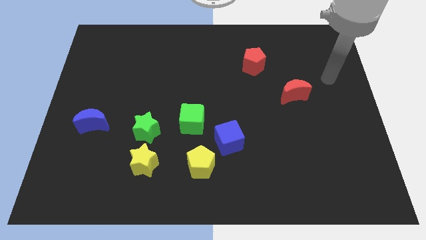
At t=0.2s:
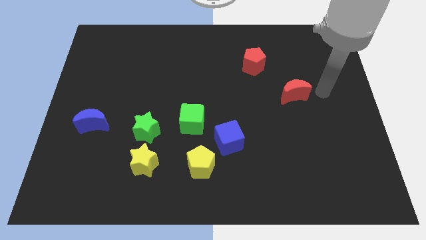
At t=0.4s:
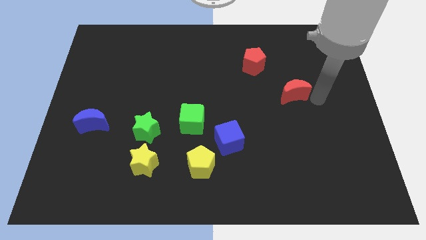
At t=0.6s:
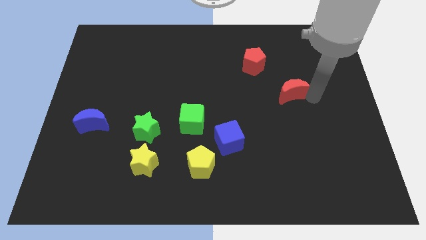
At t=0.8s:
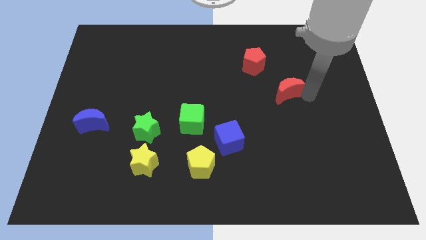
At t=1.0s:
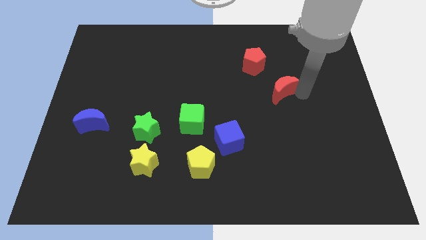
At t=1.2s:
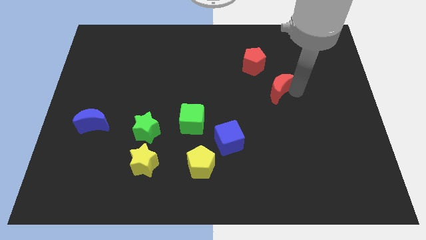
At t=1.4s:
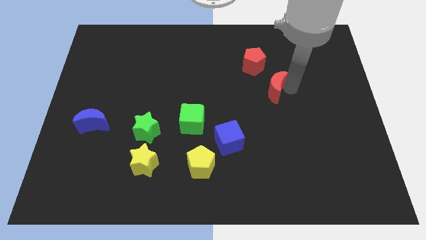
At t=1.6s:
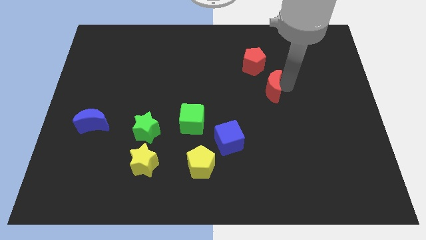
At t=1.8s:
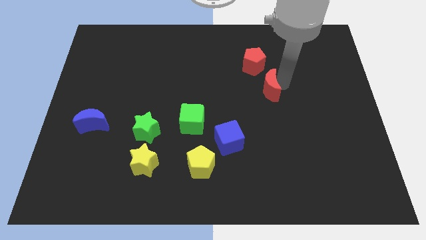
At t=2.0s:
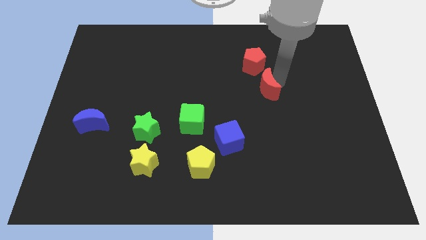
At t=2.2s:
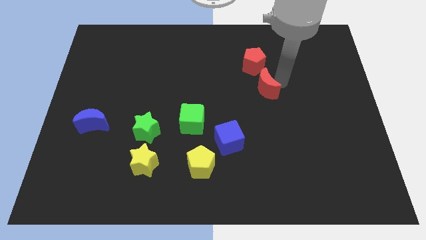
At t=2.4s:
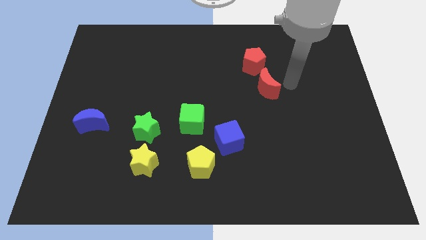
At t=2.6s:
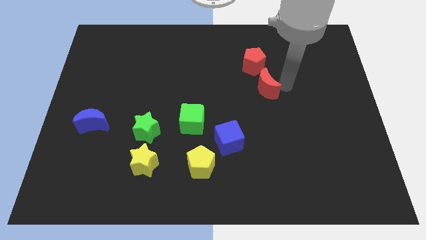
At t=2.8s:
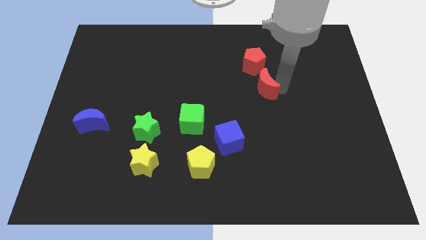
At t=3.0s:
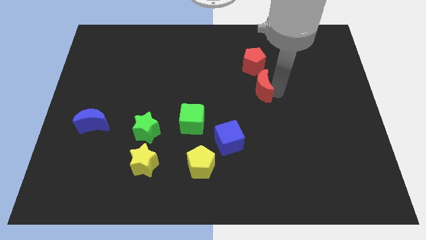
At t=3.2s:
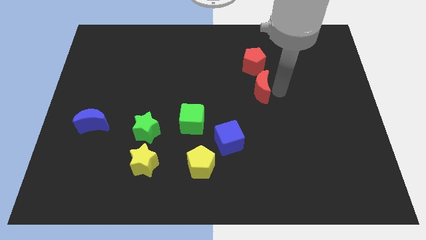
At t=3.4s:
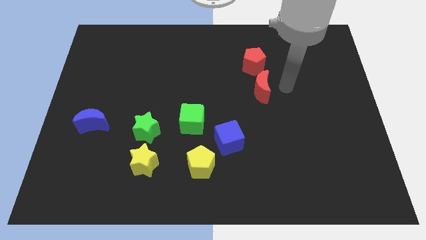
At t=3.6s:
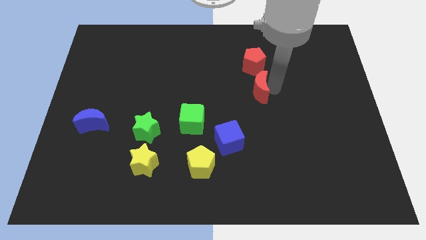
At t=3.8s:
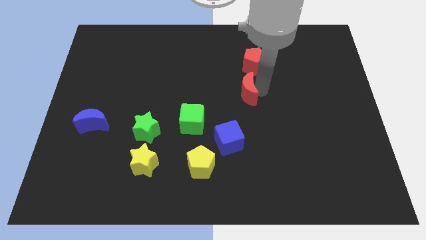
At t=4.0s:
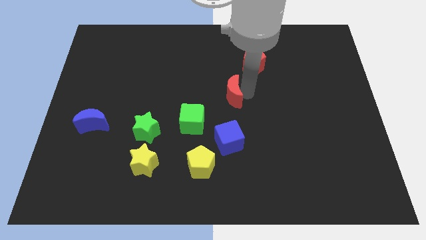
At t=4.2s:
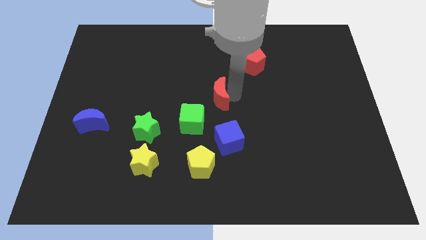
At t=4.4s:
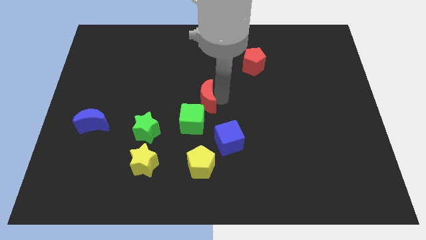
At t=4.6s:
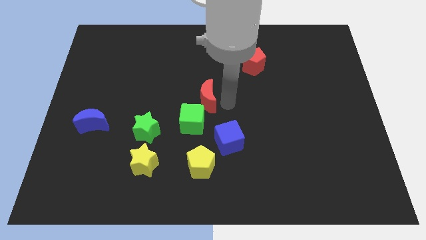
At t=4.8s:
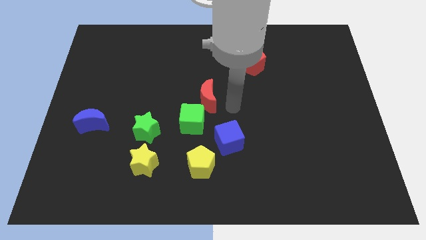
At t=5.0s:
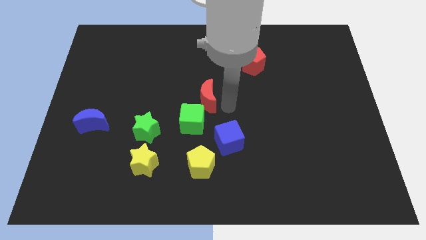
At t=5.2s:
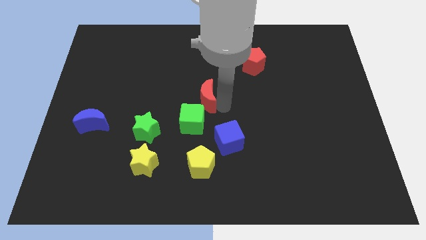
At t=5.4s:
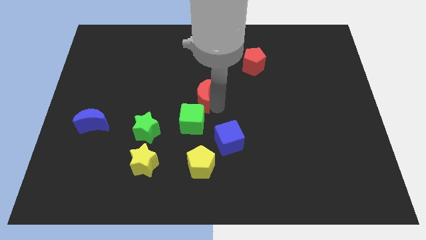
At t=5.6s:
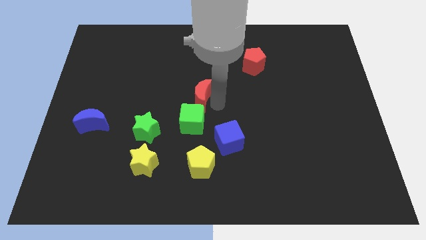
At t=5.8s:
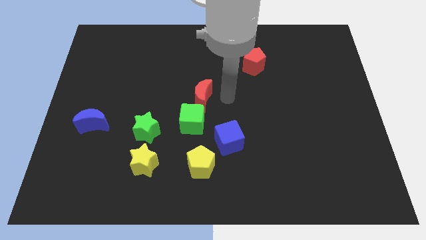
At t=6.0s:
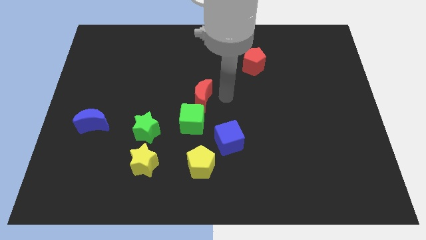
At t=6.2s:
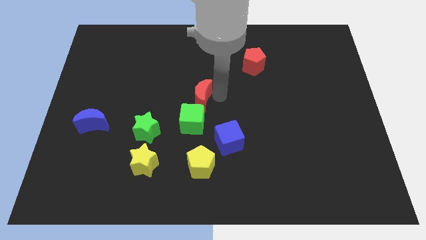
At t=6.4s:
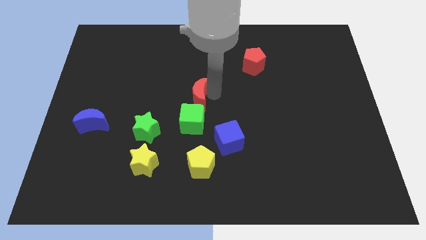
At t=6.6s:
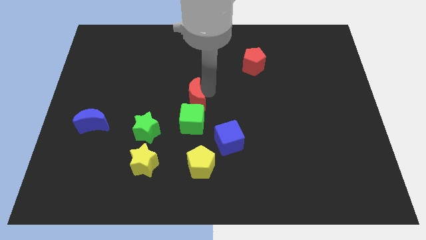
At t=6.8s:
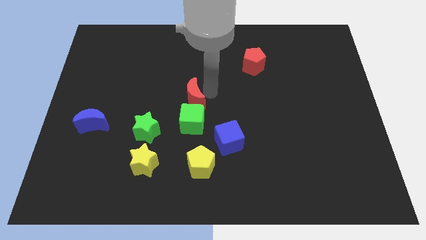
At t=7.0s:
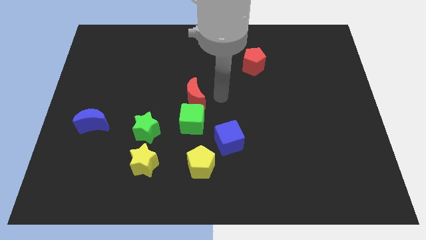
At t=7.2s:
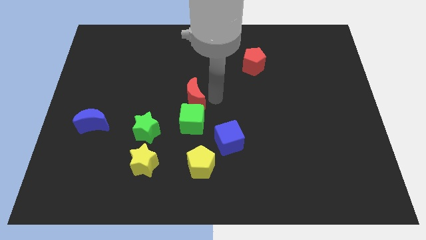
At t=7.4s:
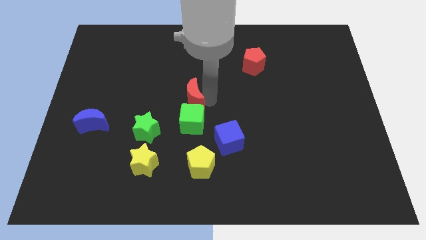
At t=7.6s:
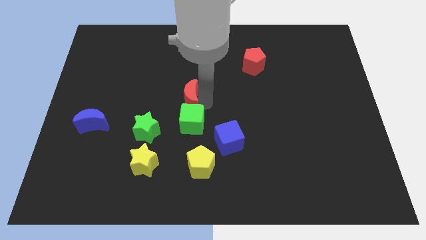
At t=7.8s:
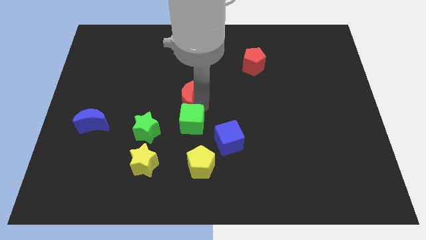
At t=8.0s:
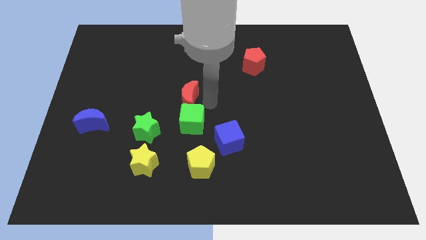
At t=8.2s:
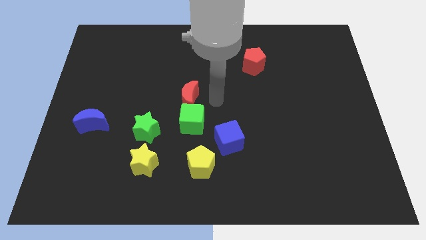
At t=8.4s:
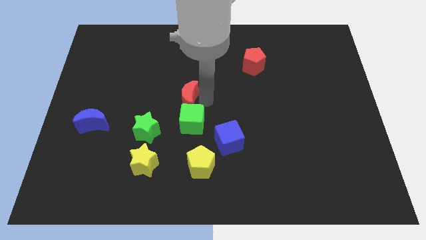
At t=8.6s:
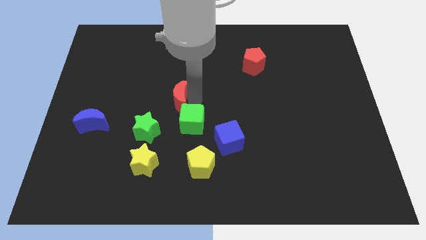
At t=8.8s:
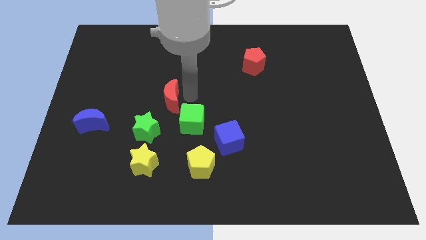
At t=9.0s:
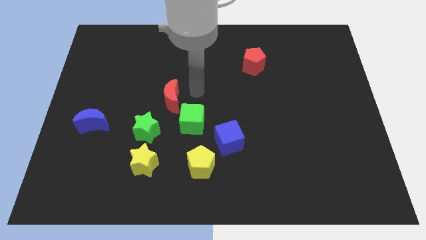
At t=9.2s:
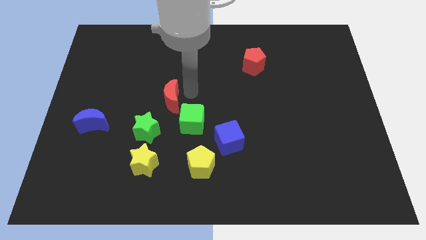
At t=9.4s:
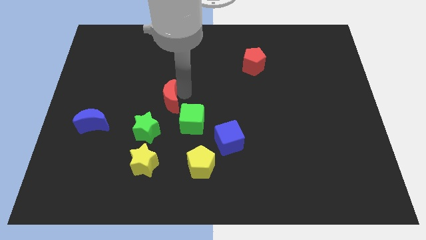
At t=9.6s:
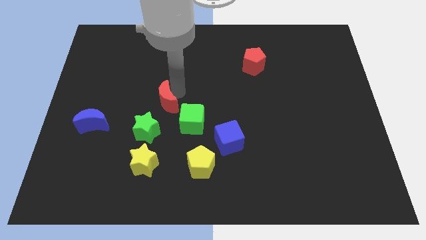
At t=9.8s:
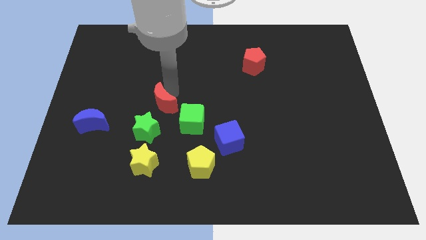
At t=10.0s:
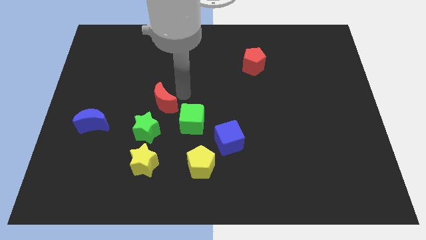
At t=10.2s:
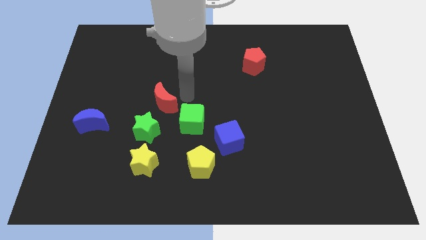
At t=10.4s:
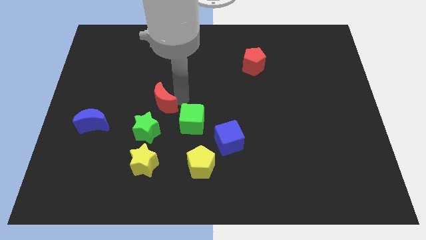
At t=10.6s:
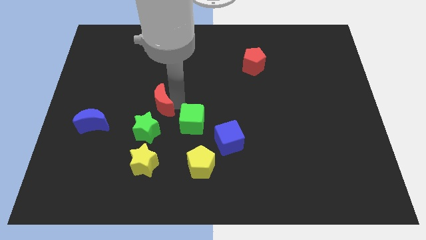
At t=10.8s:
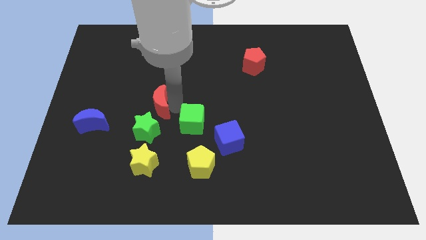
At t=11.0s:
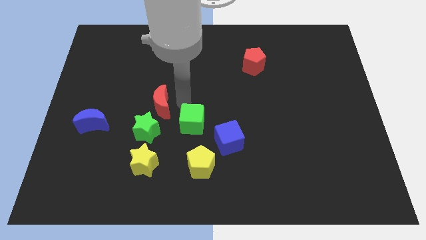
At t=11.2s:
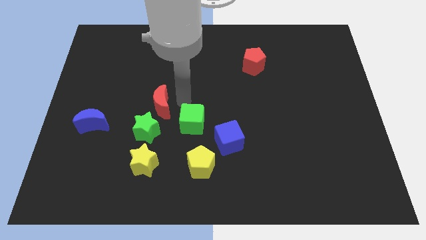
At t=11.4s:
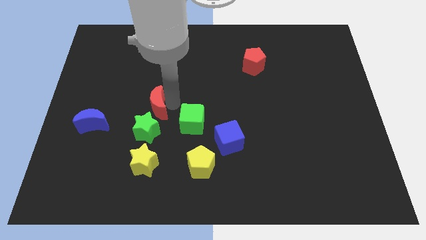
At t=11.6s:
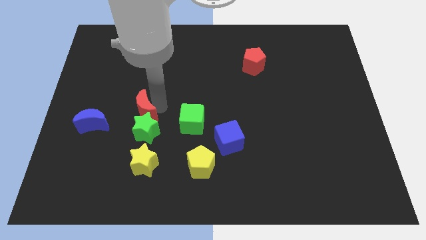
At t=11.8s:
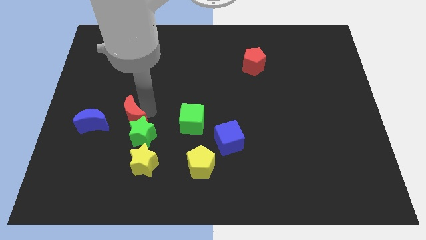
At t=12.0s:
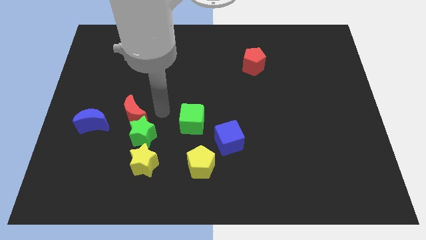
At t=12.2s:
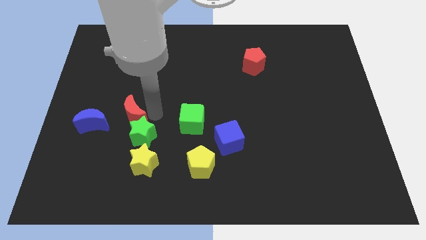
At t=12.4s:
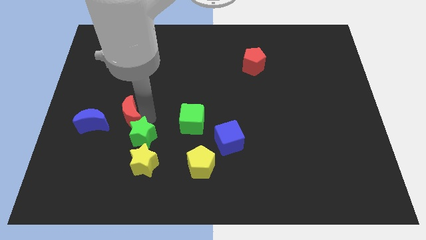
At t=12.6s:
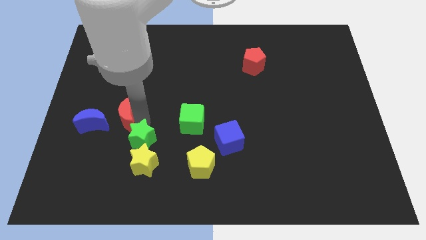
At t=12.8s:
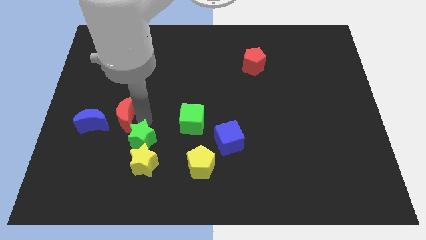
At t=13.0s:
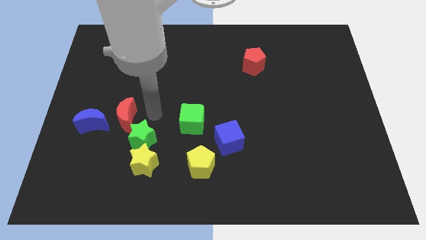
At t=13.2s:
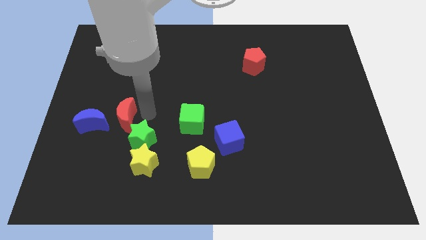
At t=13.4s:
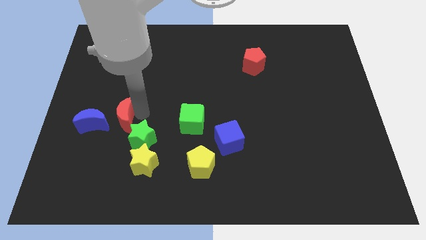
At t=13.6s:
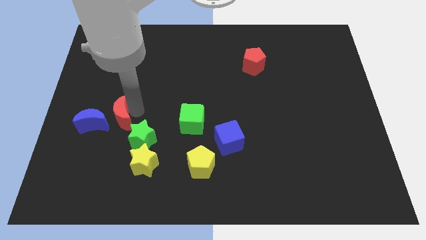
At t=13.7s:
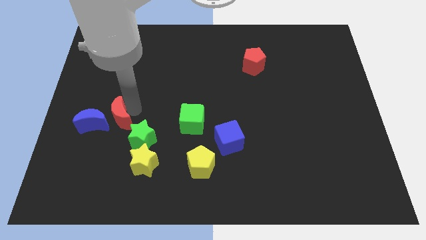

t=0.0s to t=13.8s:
put the red moon close to the blue moon
